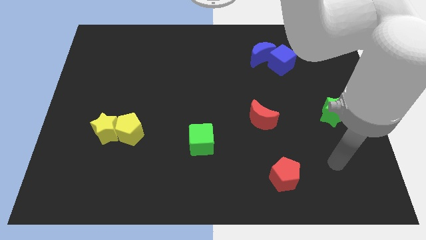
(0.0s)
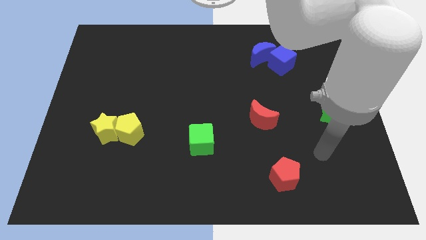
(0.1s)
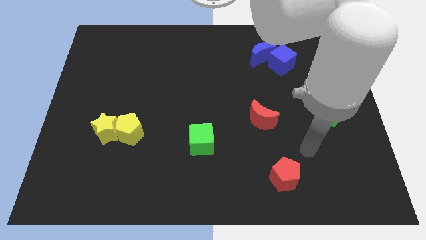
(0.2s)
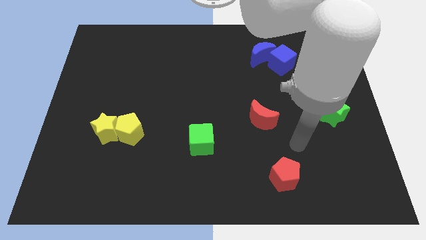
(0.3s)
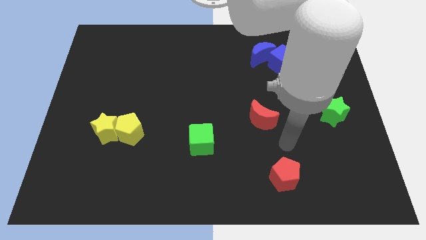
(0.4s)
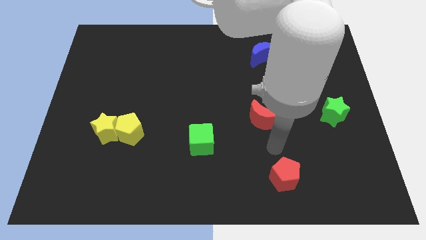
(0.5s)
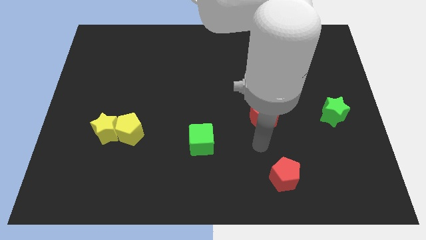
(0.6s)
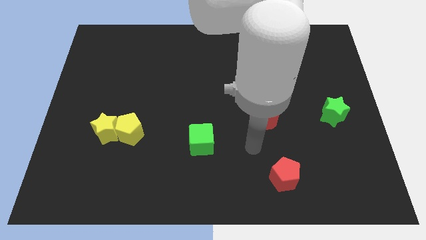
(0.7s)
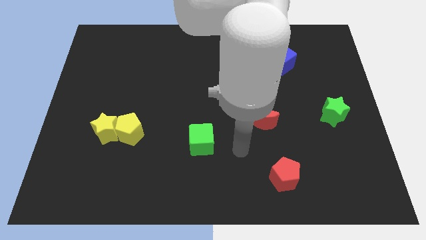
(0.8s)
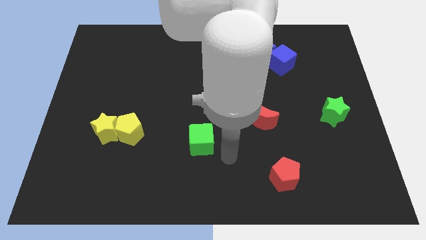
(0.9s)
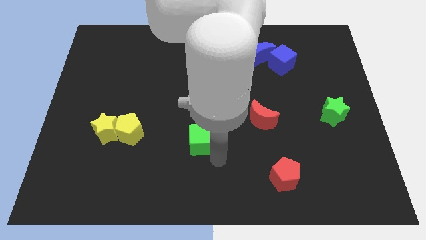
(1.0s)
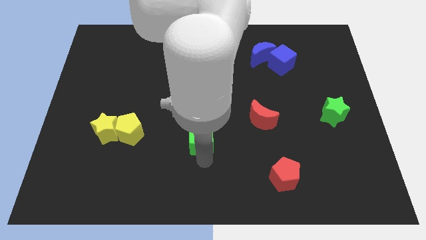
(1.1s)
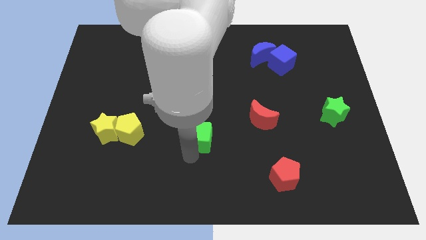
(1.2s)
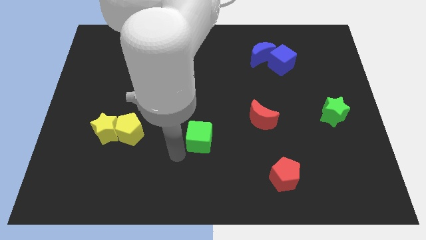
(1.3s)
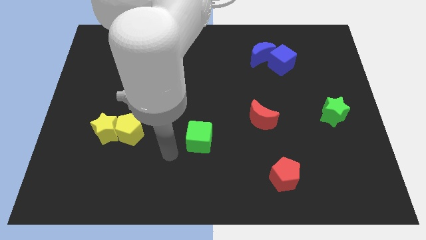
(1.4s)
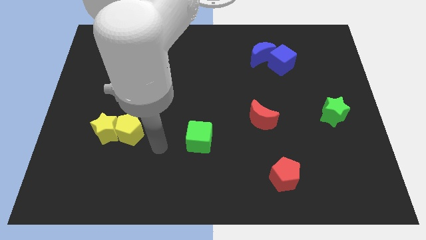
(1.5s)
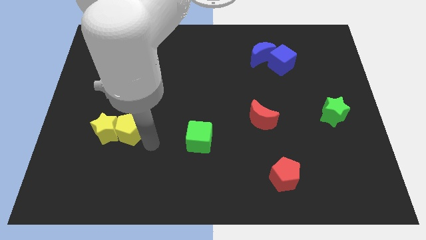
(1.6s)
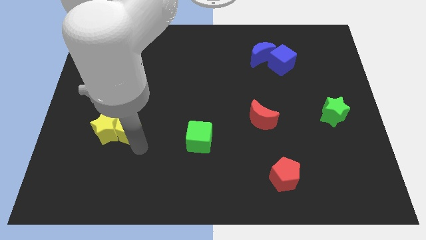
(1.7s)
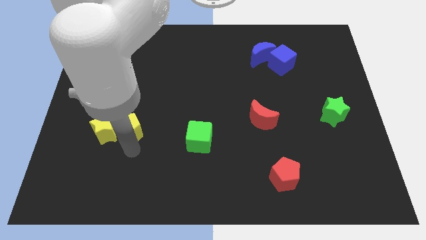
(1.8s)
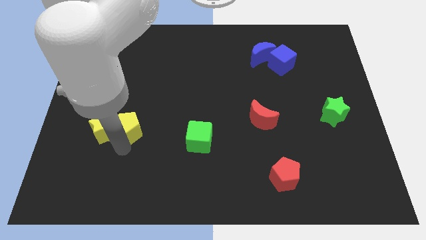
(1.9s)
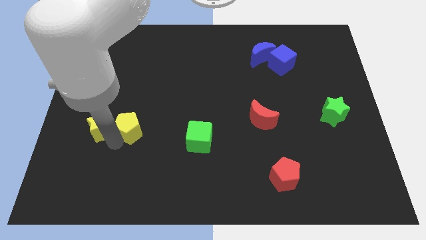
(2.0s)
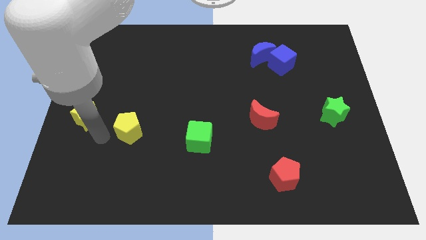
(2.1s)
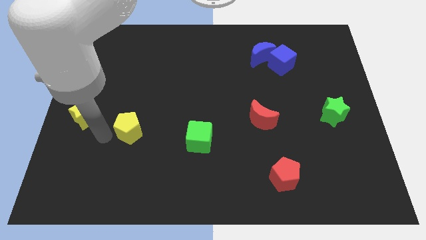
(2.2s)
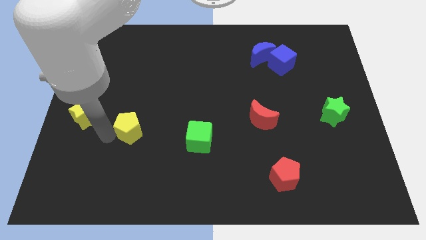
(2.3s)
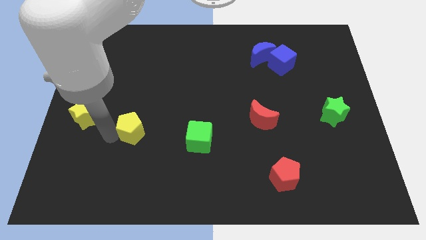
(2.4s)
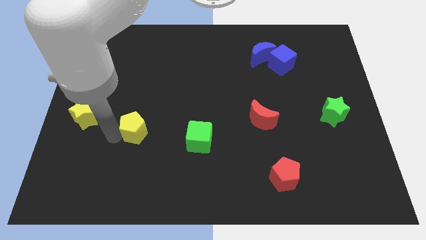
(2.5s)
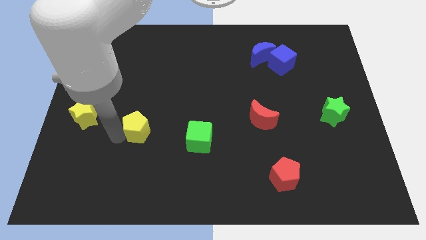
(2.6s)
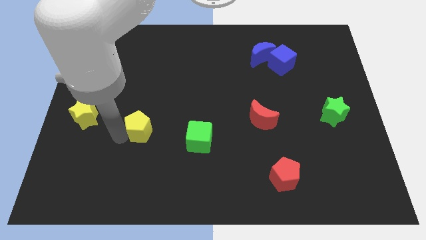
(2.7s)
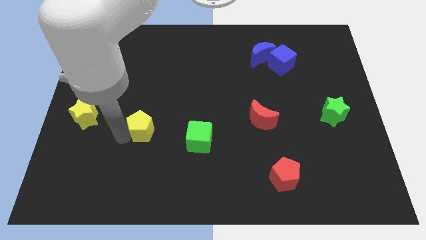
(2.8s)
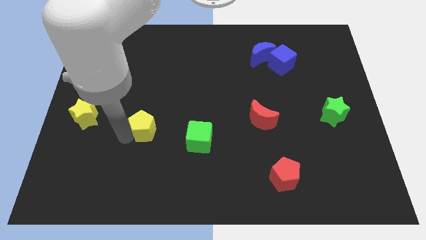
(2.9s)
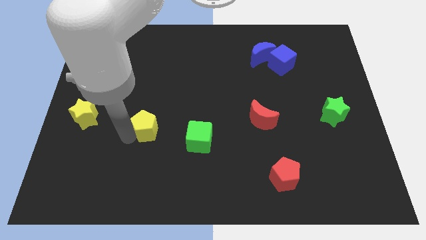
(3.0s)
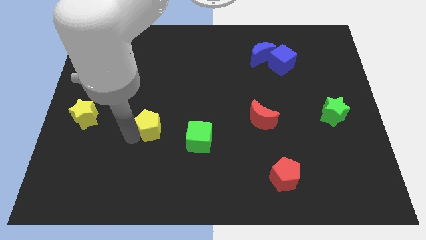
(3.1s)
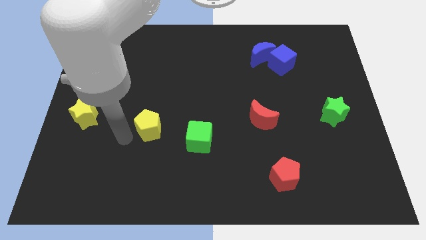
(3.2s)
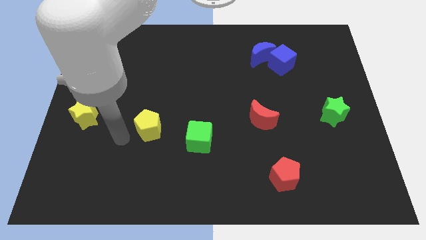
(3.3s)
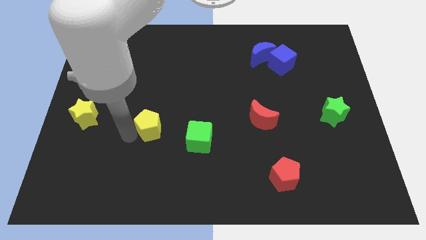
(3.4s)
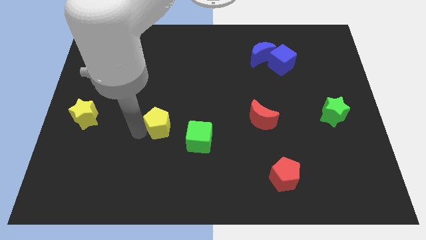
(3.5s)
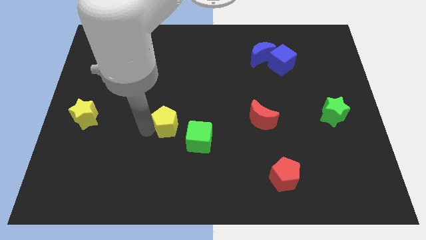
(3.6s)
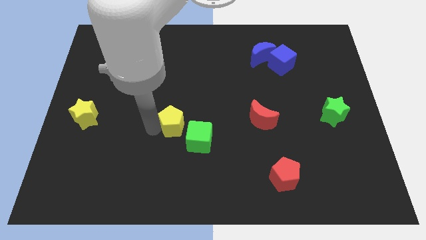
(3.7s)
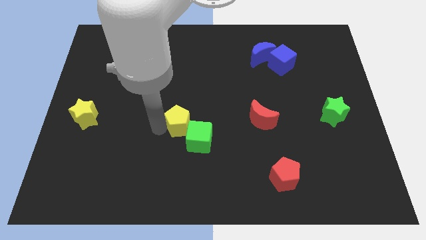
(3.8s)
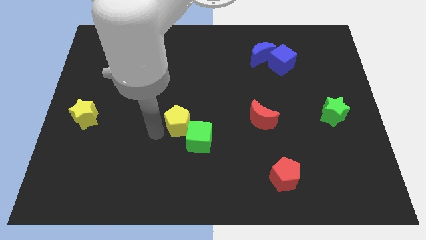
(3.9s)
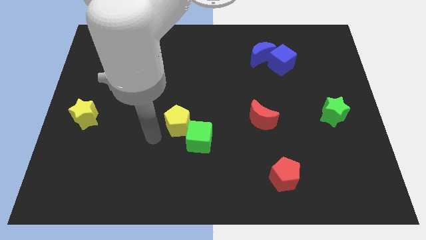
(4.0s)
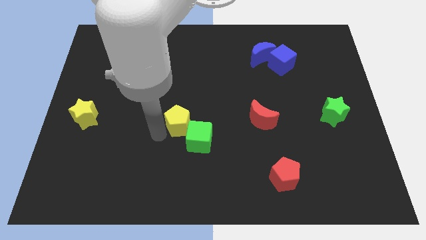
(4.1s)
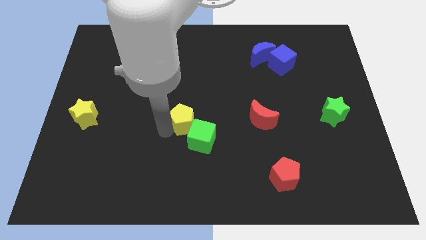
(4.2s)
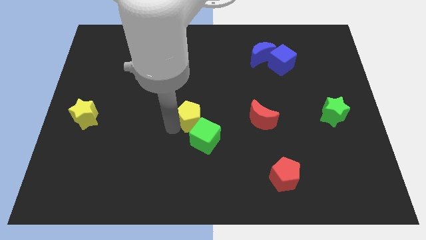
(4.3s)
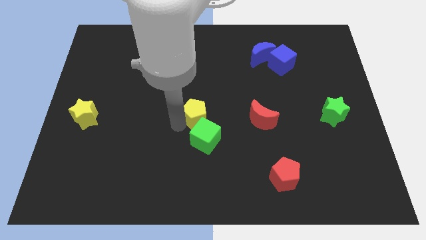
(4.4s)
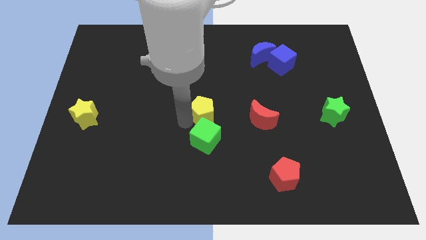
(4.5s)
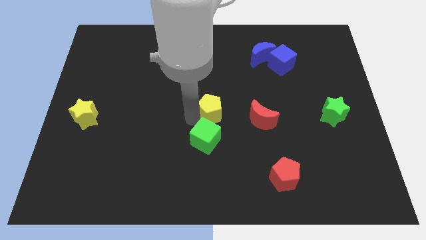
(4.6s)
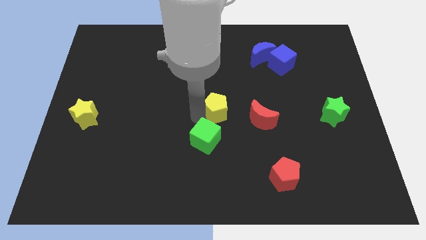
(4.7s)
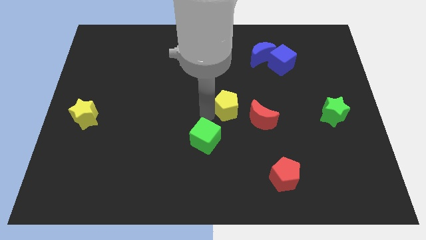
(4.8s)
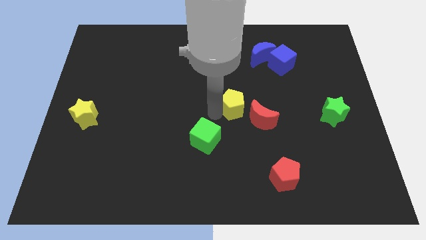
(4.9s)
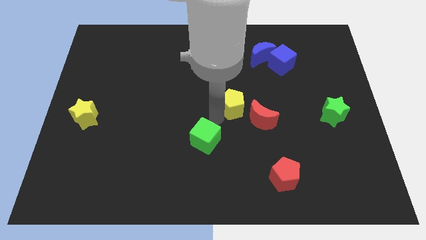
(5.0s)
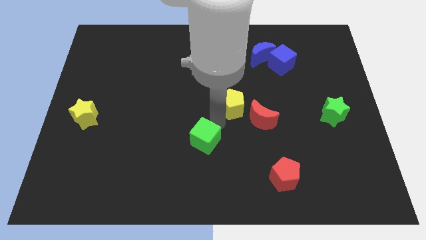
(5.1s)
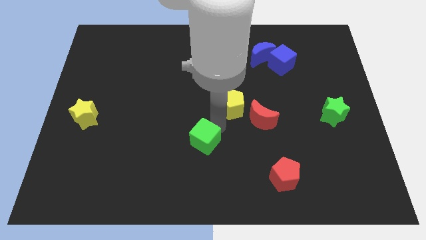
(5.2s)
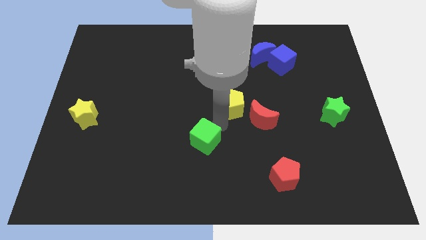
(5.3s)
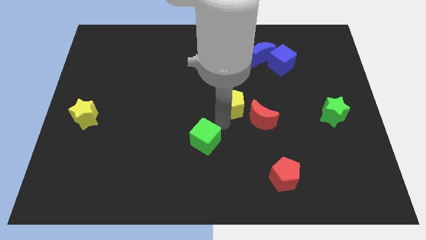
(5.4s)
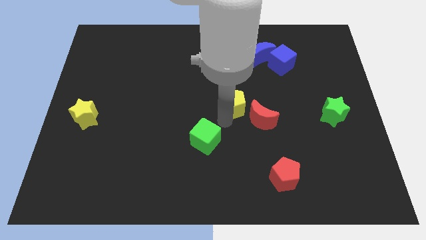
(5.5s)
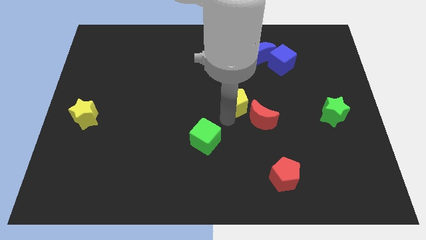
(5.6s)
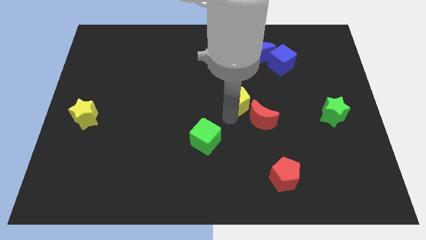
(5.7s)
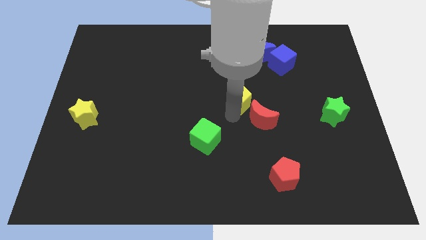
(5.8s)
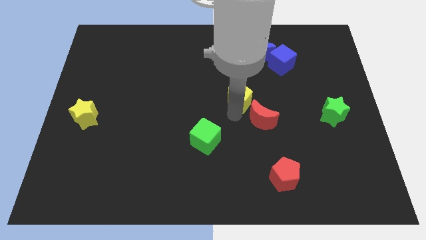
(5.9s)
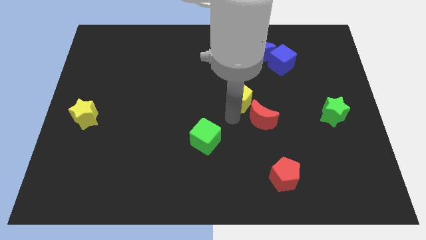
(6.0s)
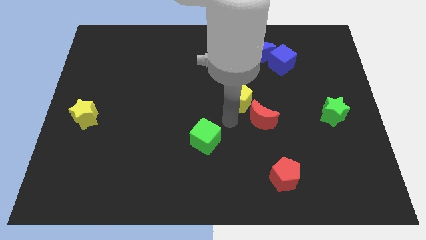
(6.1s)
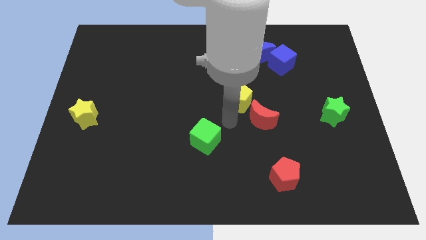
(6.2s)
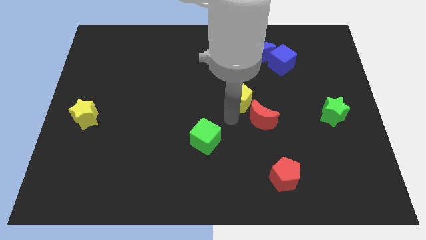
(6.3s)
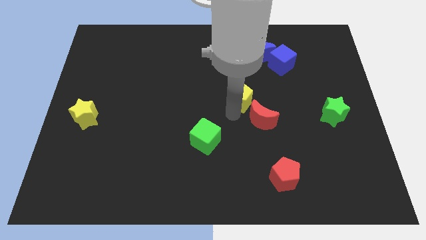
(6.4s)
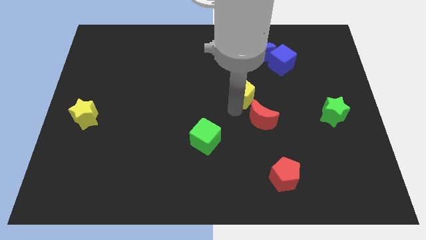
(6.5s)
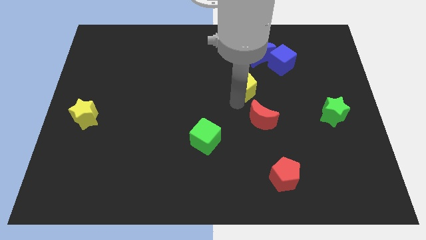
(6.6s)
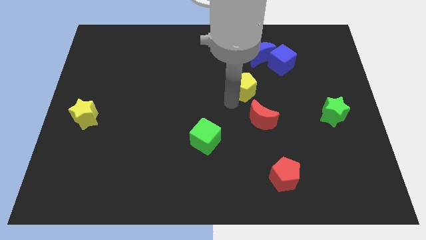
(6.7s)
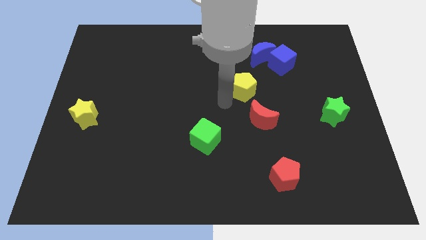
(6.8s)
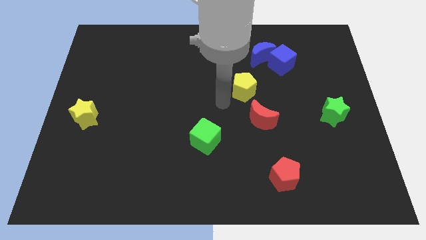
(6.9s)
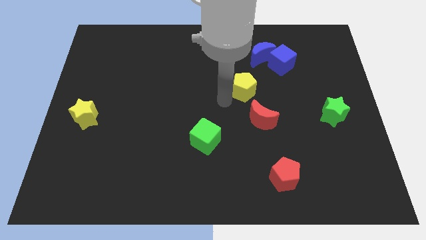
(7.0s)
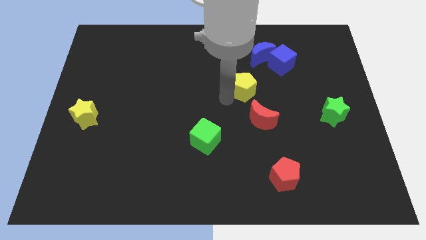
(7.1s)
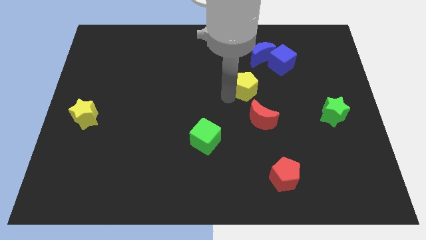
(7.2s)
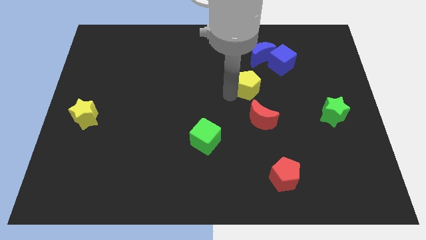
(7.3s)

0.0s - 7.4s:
move the yellow pentagon to the bottom left side of the blue cube
